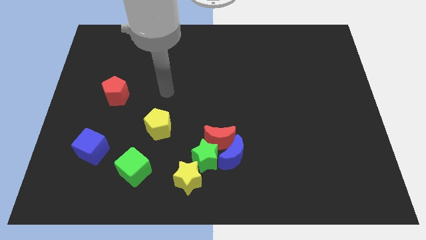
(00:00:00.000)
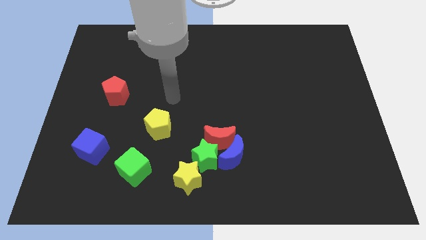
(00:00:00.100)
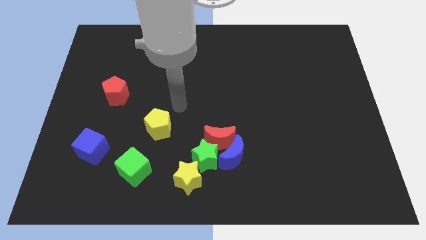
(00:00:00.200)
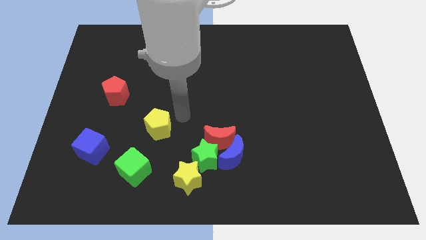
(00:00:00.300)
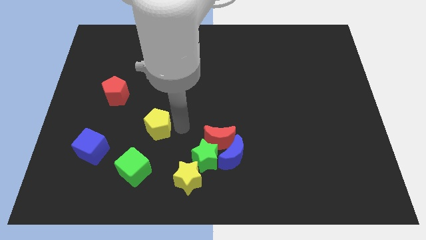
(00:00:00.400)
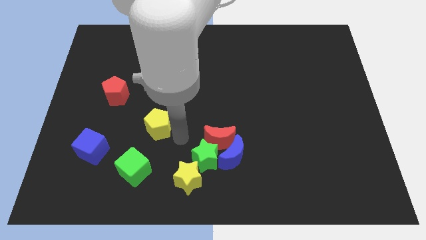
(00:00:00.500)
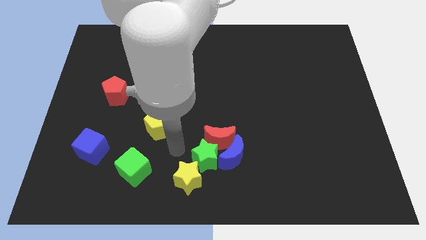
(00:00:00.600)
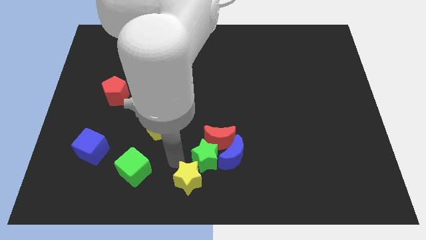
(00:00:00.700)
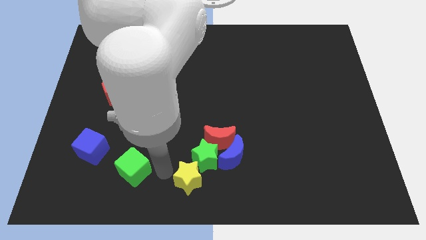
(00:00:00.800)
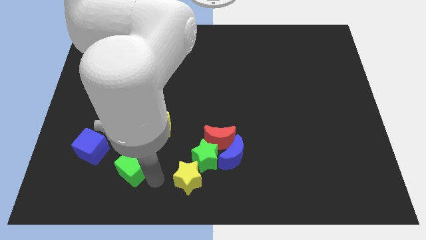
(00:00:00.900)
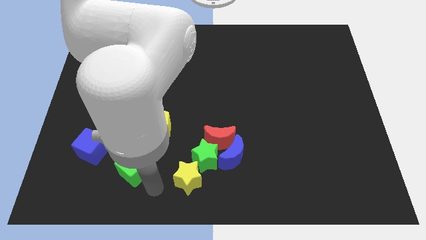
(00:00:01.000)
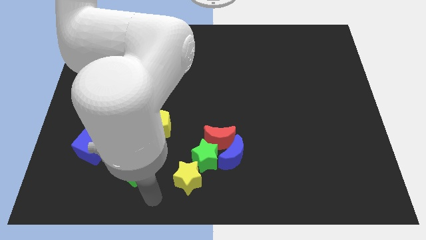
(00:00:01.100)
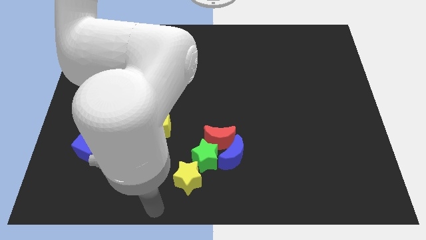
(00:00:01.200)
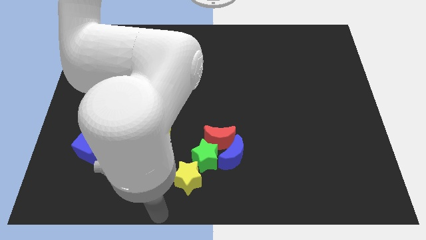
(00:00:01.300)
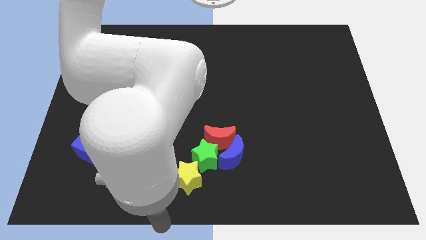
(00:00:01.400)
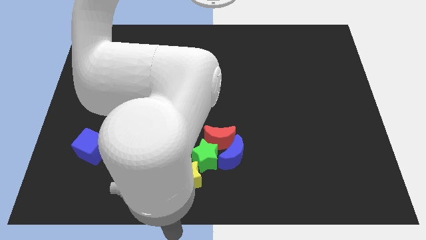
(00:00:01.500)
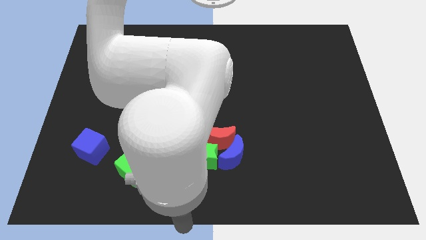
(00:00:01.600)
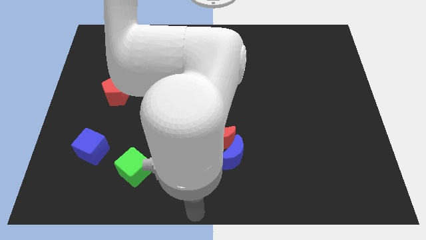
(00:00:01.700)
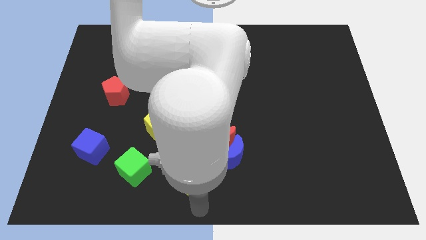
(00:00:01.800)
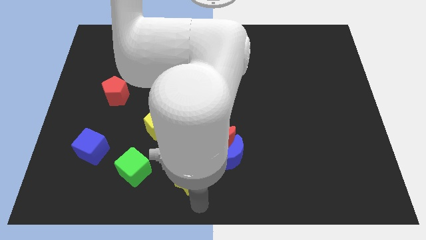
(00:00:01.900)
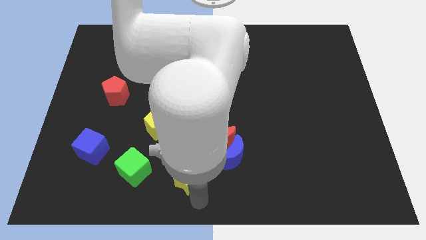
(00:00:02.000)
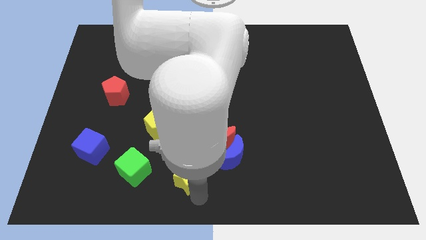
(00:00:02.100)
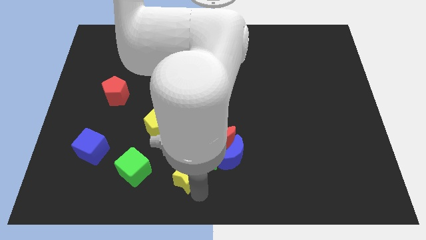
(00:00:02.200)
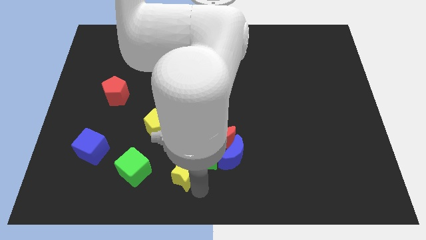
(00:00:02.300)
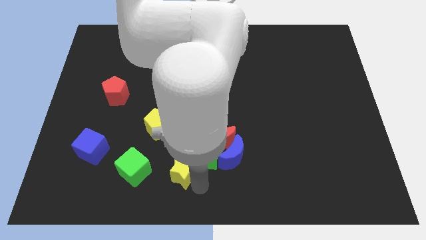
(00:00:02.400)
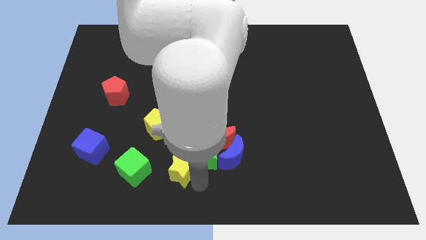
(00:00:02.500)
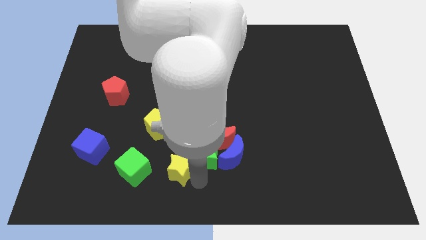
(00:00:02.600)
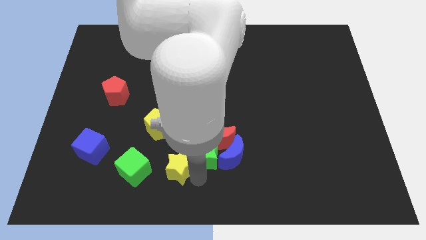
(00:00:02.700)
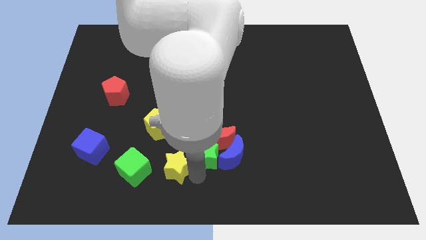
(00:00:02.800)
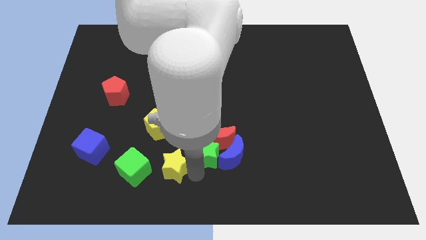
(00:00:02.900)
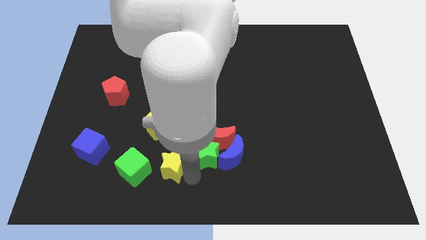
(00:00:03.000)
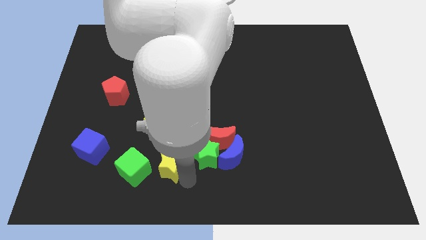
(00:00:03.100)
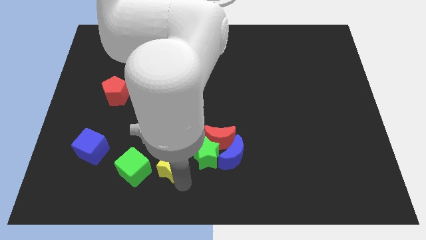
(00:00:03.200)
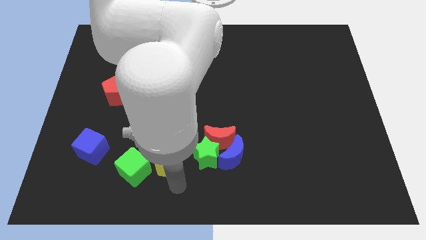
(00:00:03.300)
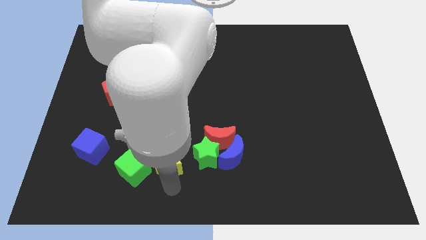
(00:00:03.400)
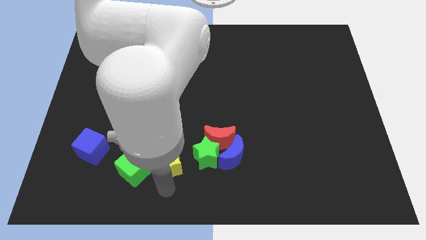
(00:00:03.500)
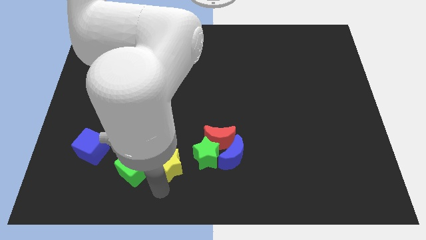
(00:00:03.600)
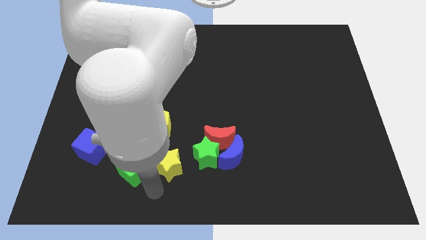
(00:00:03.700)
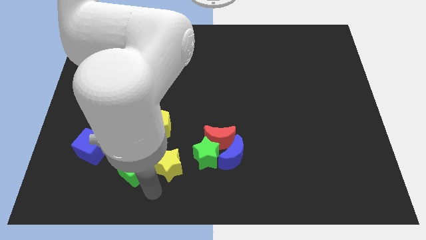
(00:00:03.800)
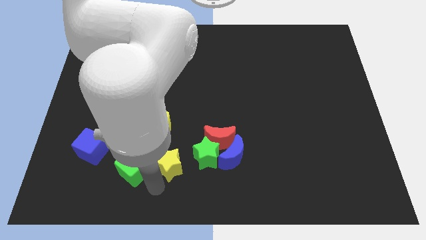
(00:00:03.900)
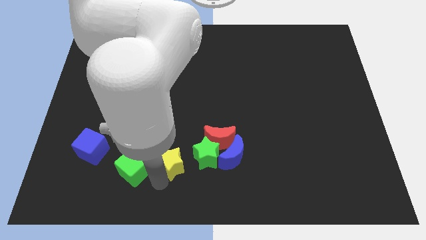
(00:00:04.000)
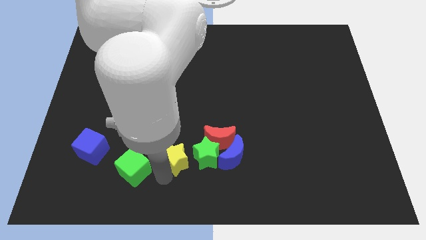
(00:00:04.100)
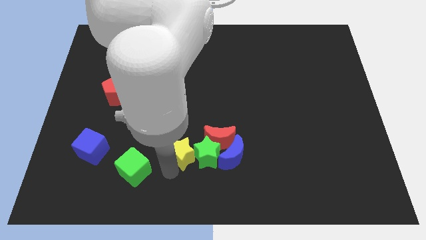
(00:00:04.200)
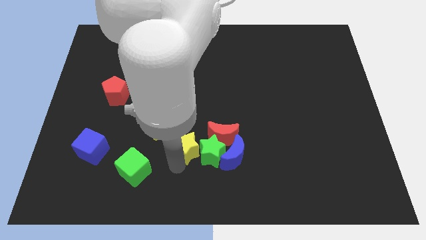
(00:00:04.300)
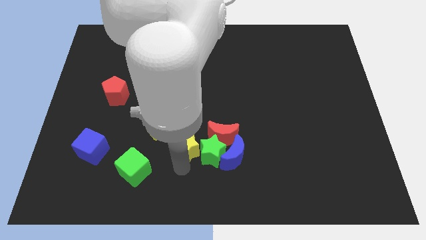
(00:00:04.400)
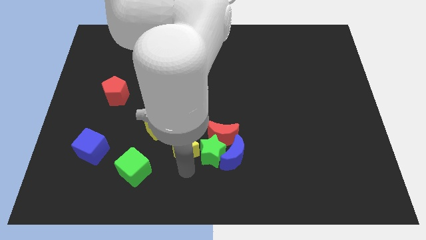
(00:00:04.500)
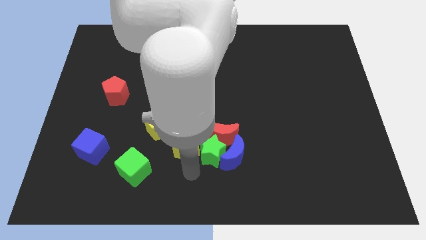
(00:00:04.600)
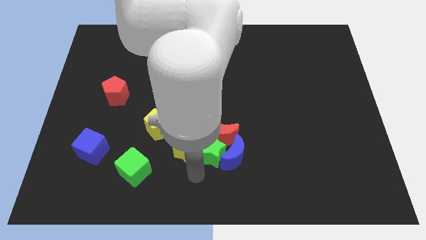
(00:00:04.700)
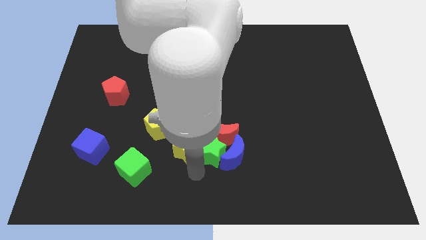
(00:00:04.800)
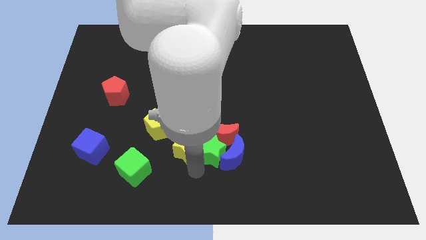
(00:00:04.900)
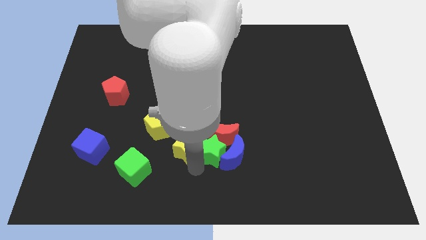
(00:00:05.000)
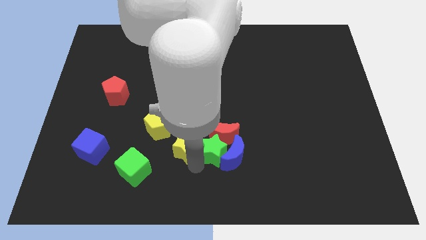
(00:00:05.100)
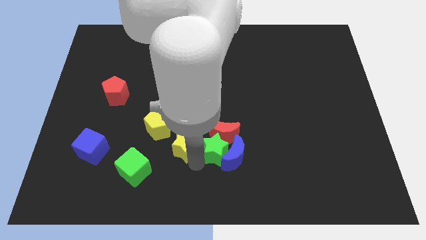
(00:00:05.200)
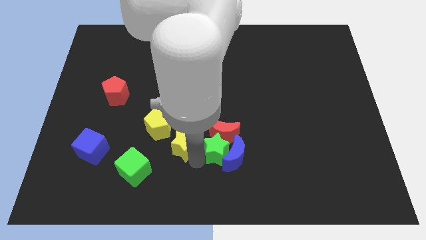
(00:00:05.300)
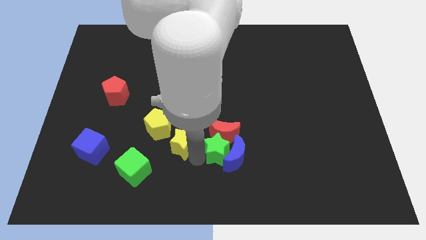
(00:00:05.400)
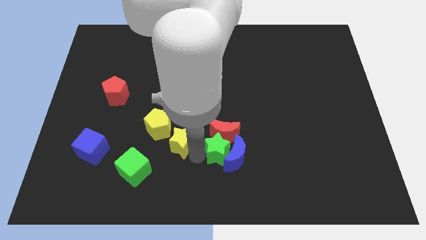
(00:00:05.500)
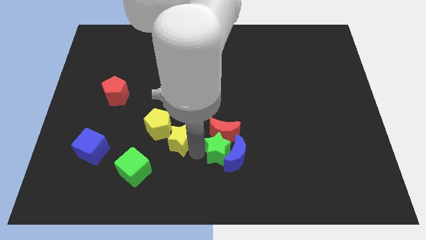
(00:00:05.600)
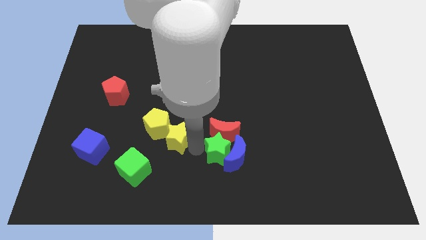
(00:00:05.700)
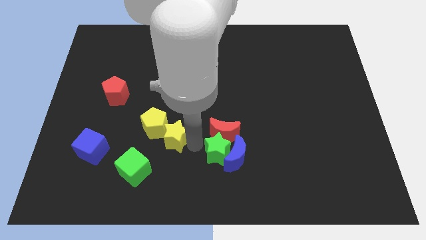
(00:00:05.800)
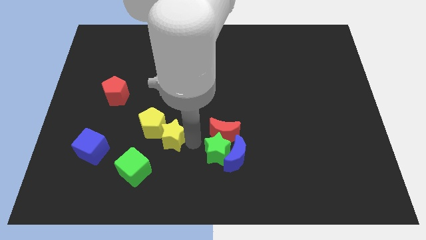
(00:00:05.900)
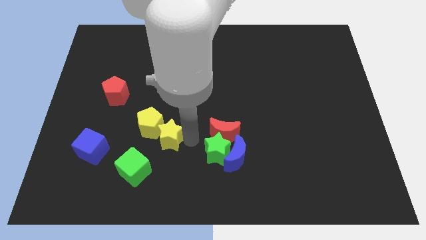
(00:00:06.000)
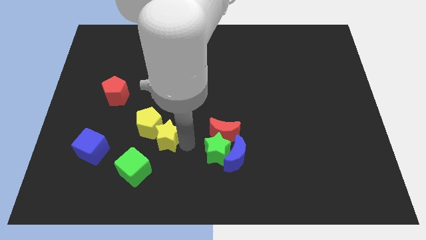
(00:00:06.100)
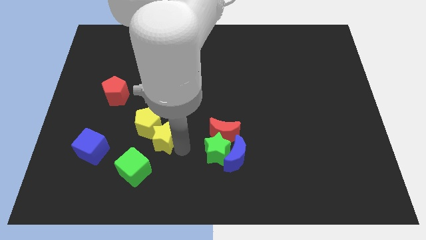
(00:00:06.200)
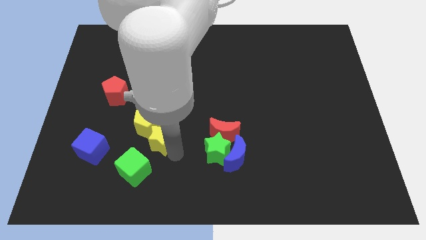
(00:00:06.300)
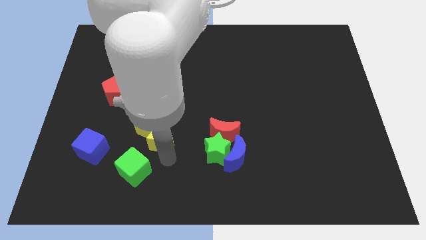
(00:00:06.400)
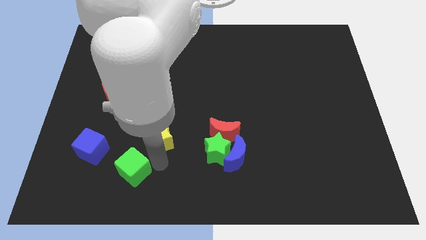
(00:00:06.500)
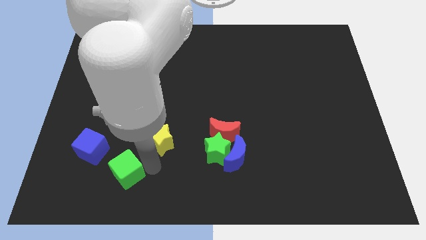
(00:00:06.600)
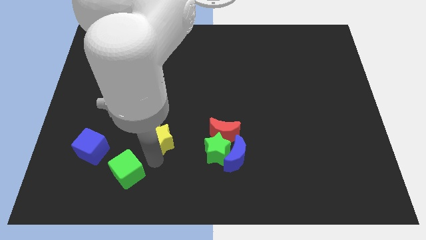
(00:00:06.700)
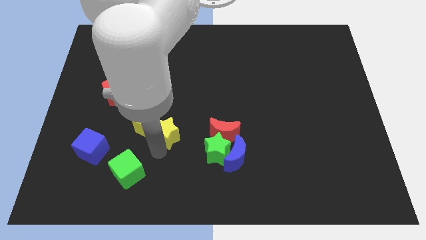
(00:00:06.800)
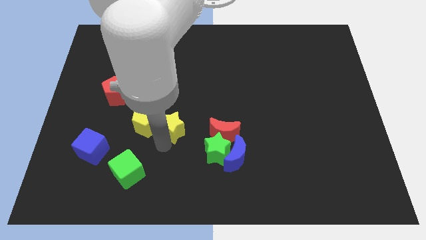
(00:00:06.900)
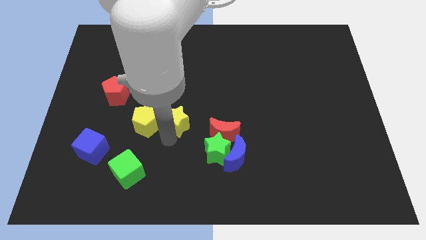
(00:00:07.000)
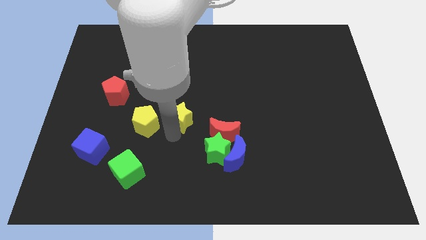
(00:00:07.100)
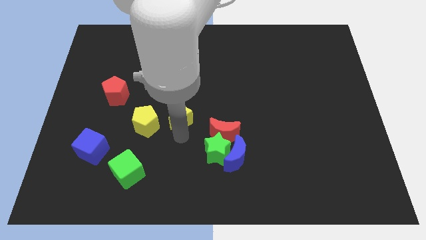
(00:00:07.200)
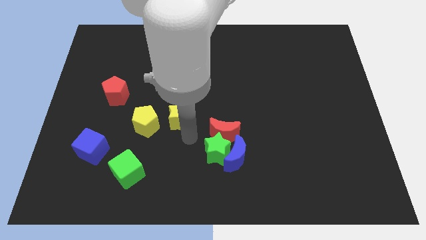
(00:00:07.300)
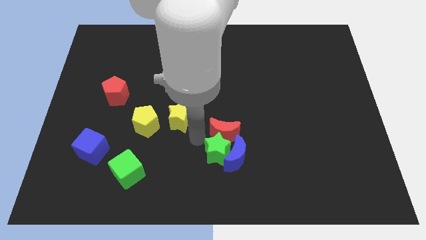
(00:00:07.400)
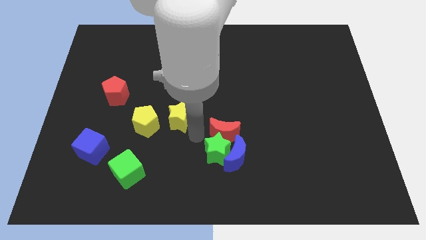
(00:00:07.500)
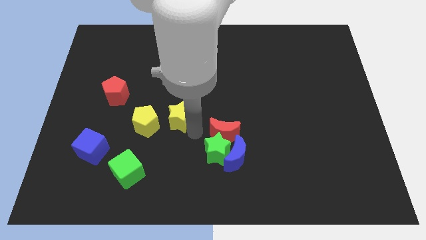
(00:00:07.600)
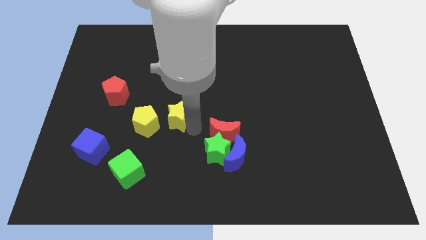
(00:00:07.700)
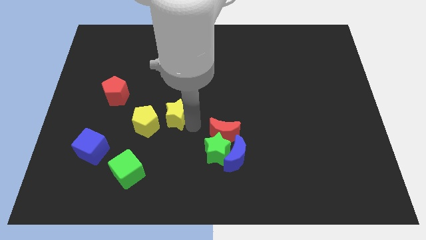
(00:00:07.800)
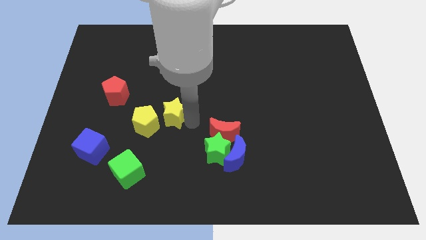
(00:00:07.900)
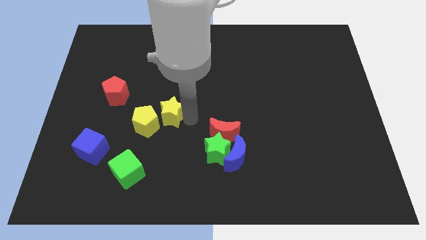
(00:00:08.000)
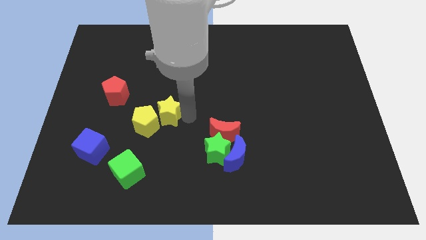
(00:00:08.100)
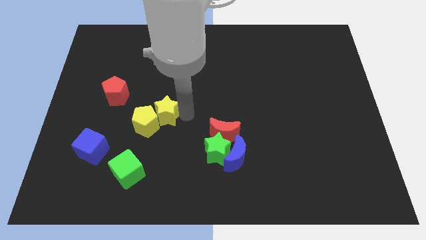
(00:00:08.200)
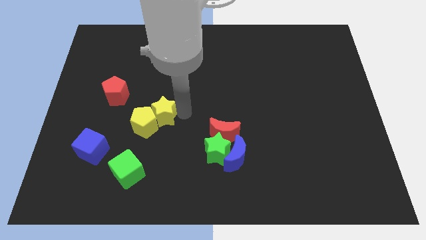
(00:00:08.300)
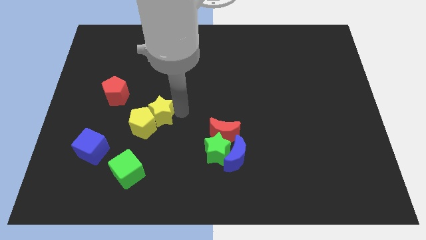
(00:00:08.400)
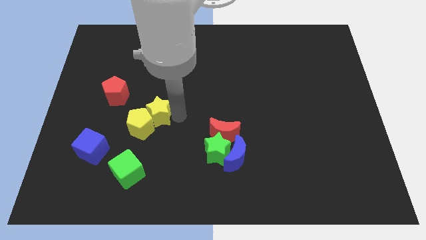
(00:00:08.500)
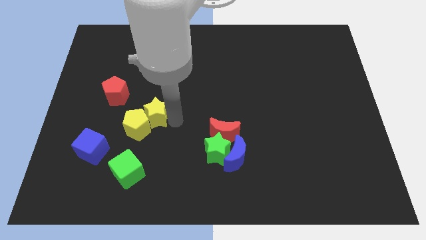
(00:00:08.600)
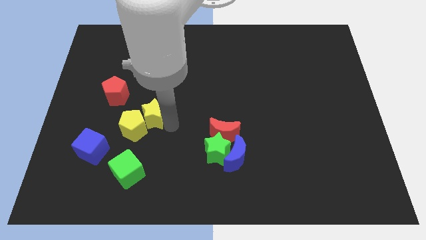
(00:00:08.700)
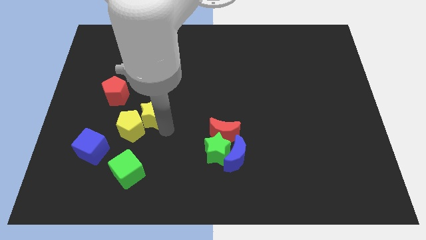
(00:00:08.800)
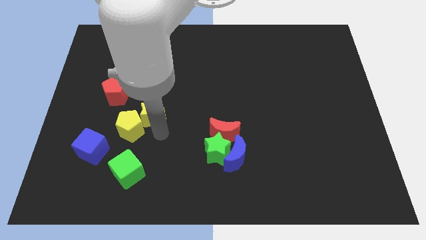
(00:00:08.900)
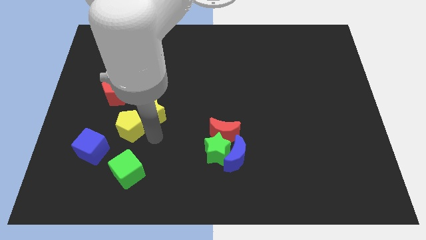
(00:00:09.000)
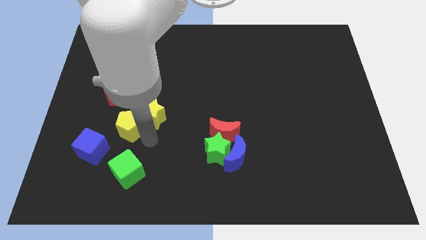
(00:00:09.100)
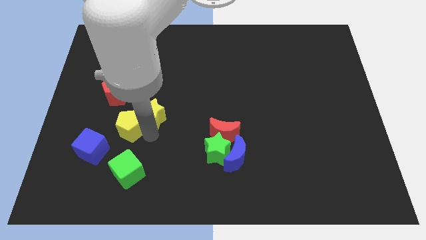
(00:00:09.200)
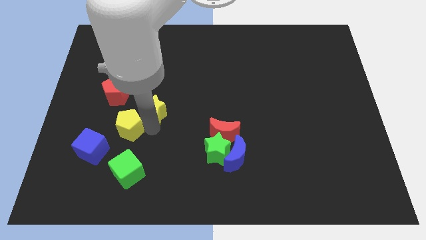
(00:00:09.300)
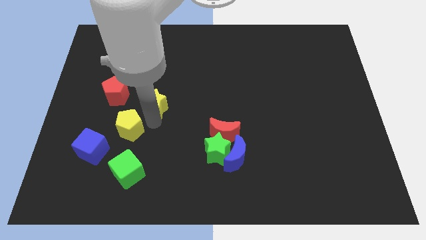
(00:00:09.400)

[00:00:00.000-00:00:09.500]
slide the yellow star to the right side of the red pentagon
